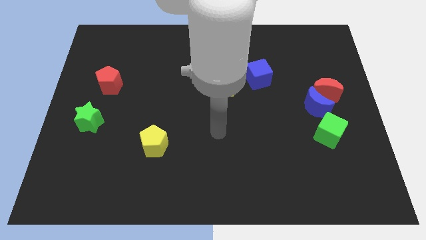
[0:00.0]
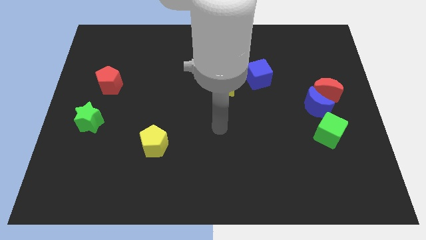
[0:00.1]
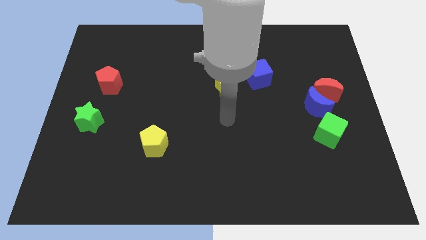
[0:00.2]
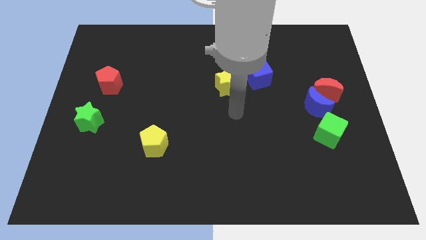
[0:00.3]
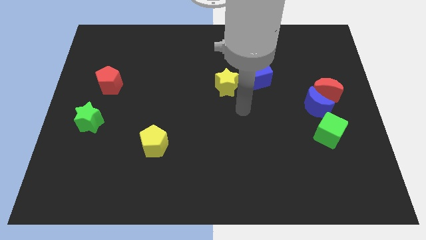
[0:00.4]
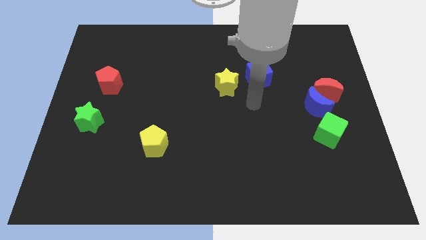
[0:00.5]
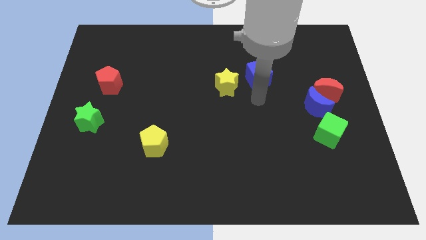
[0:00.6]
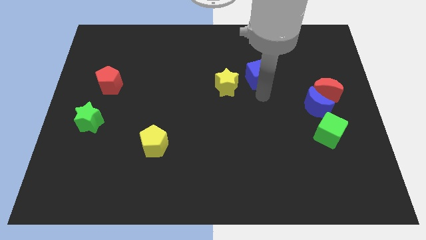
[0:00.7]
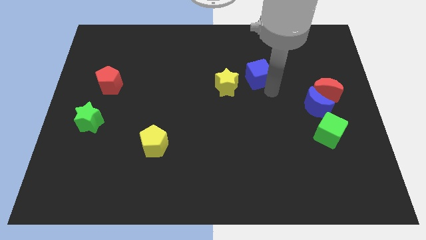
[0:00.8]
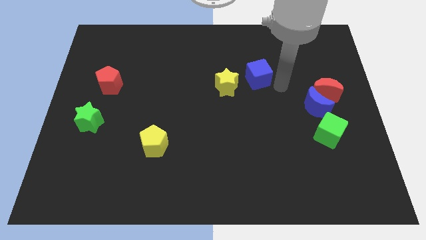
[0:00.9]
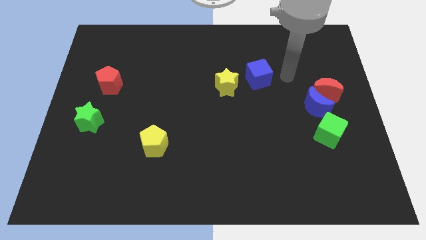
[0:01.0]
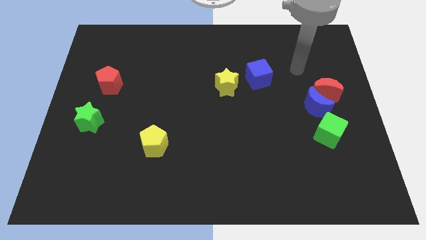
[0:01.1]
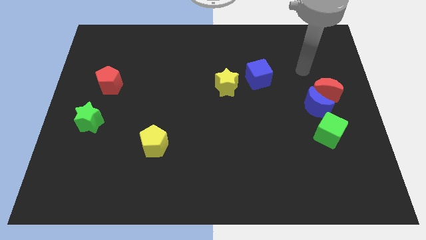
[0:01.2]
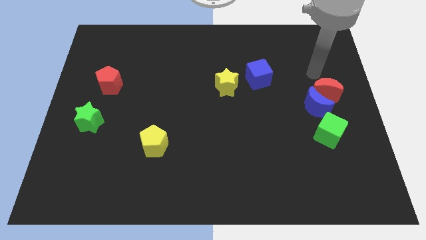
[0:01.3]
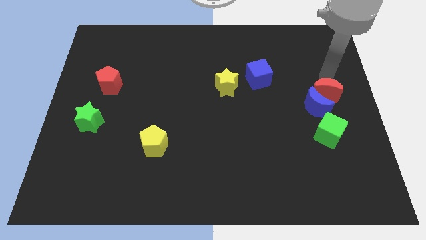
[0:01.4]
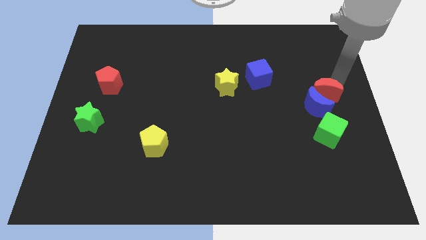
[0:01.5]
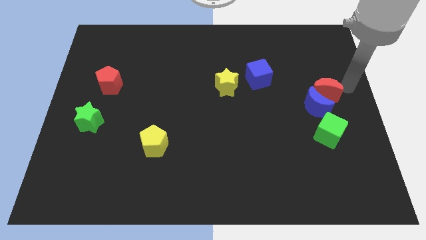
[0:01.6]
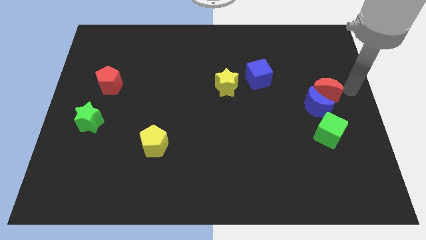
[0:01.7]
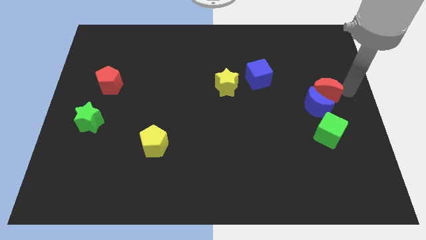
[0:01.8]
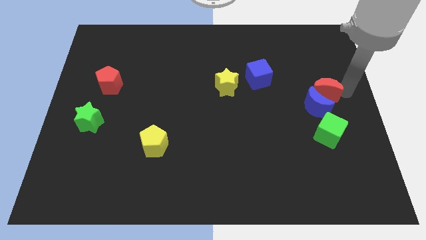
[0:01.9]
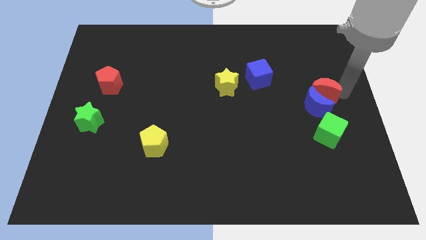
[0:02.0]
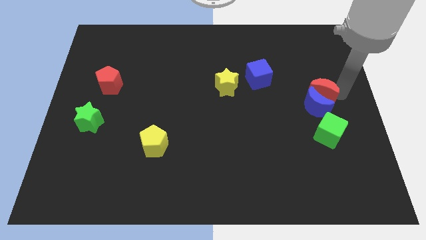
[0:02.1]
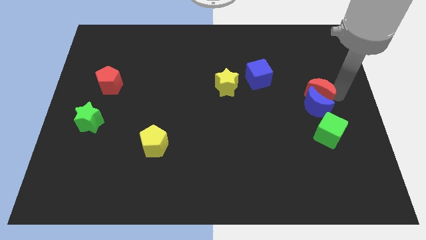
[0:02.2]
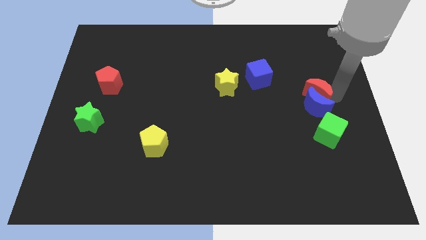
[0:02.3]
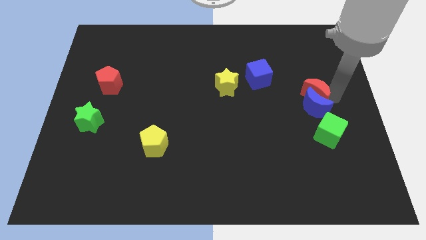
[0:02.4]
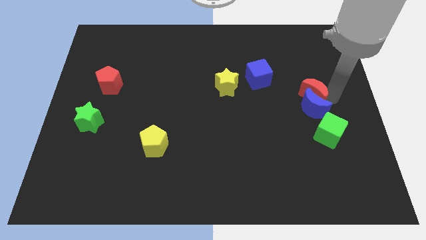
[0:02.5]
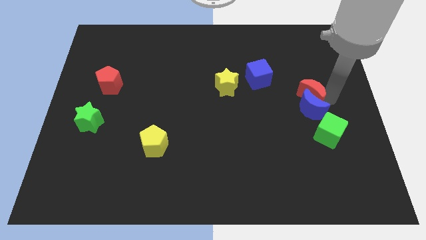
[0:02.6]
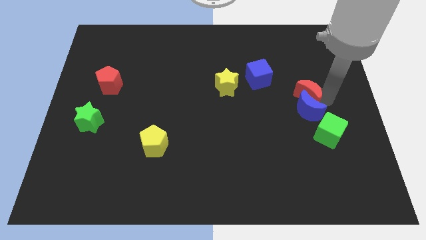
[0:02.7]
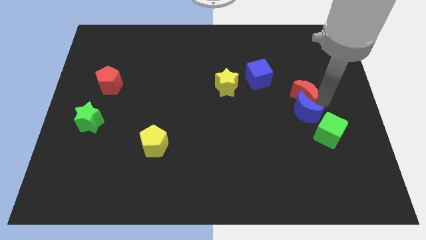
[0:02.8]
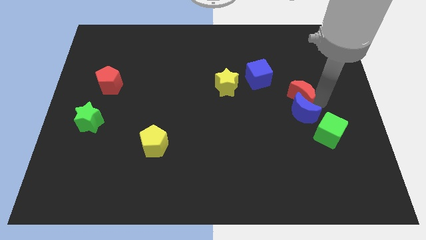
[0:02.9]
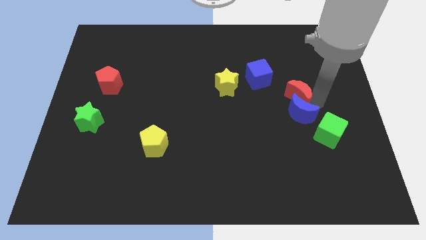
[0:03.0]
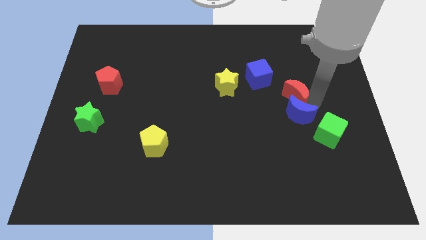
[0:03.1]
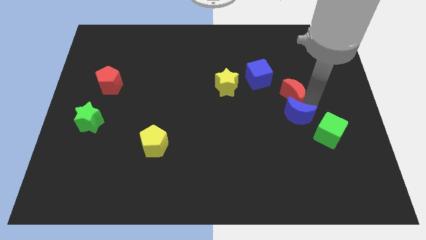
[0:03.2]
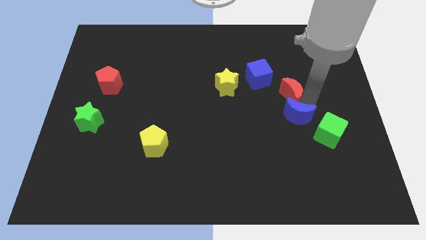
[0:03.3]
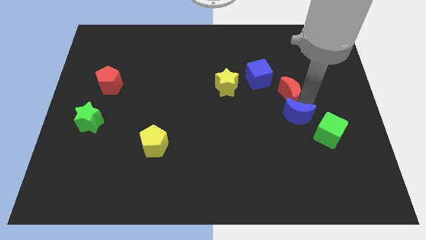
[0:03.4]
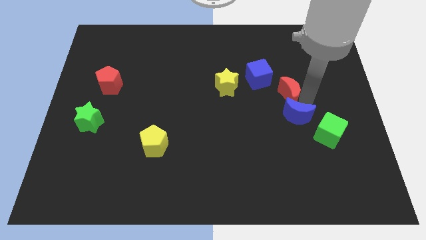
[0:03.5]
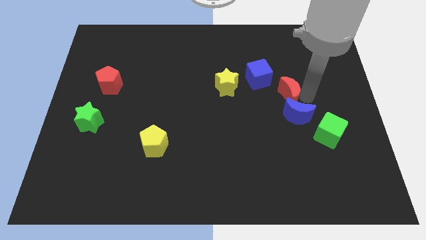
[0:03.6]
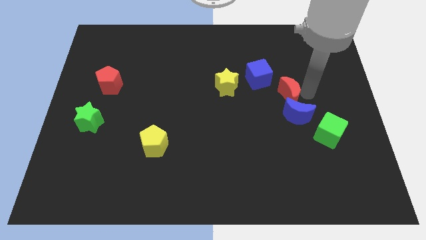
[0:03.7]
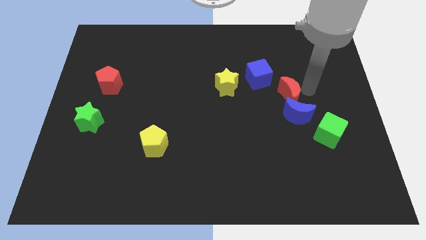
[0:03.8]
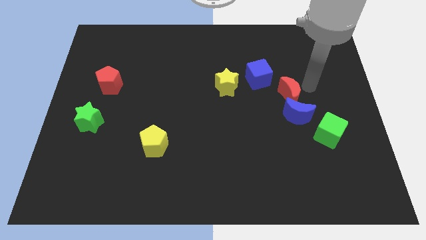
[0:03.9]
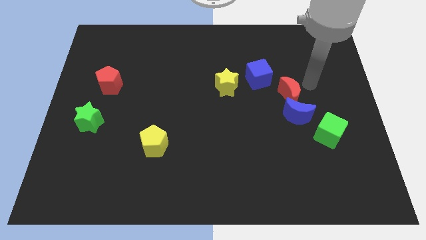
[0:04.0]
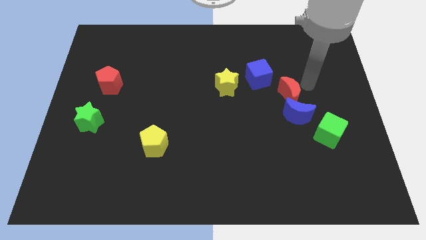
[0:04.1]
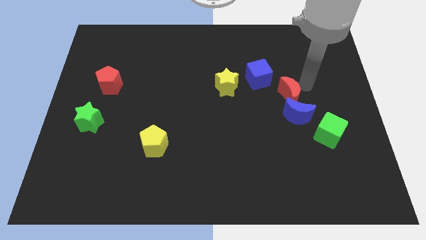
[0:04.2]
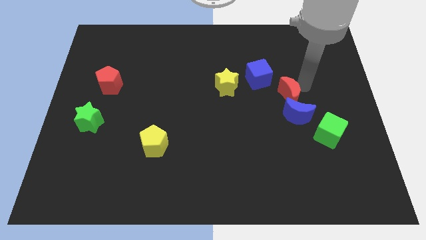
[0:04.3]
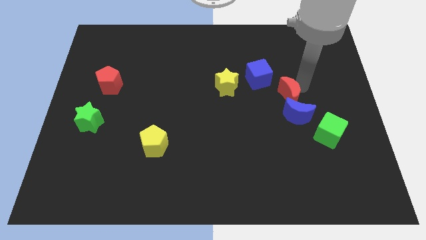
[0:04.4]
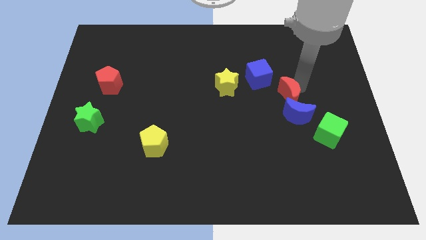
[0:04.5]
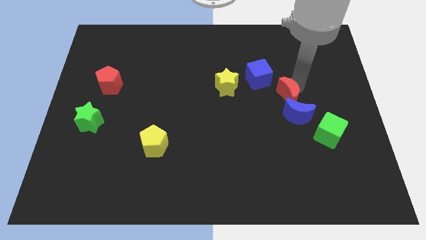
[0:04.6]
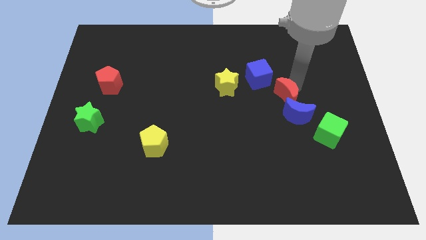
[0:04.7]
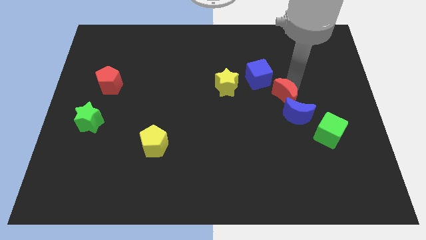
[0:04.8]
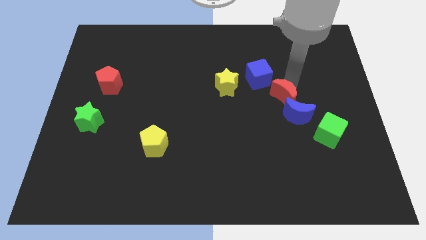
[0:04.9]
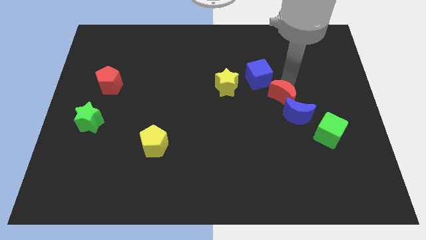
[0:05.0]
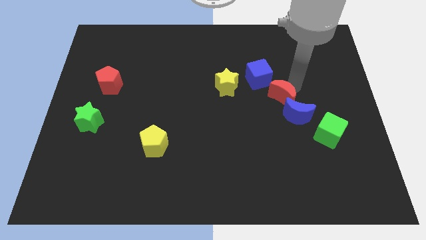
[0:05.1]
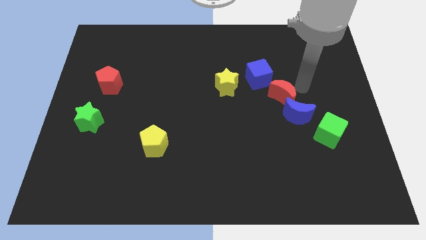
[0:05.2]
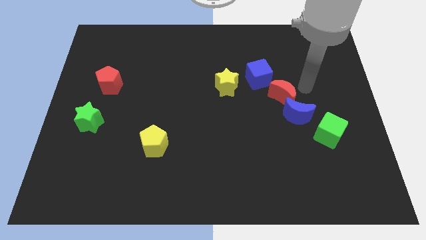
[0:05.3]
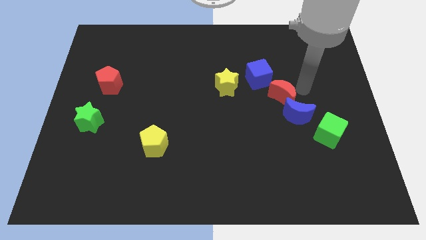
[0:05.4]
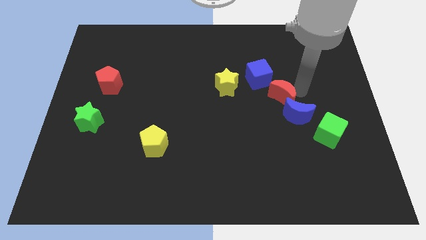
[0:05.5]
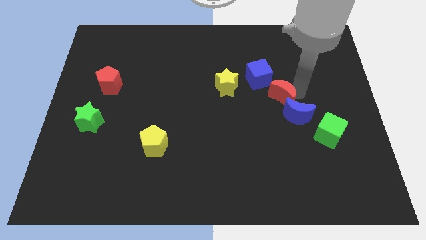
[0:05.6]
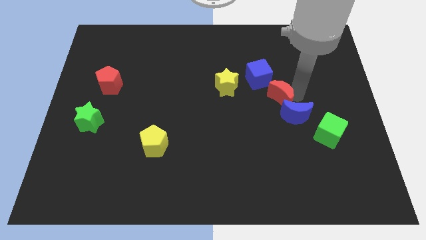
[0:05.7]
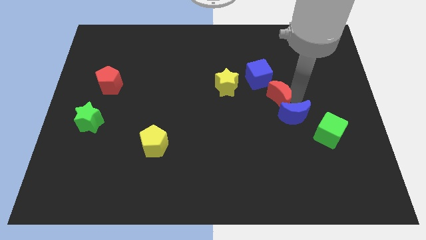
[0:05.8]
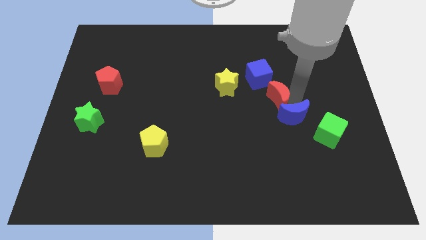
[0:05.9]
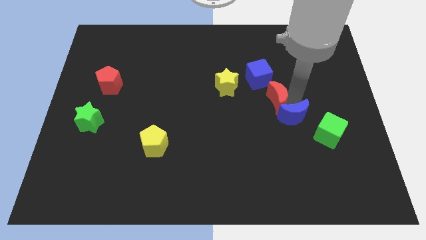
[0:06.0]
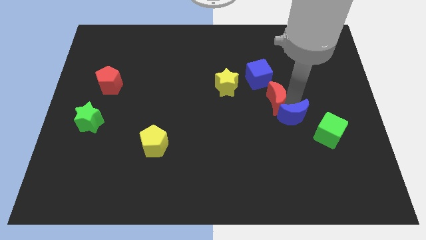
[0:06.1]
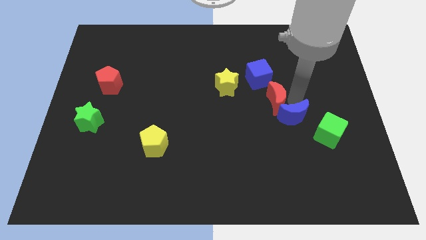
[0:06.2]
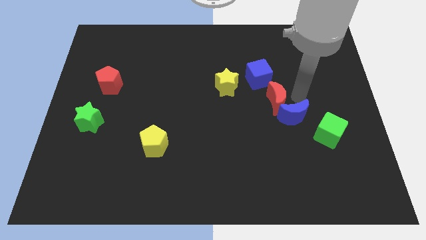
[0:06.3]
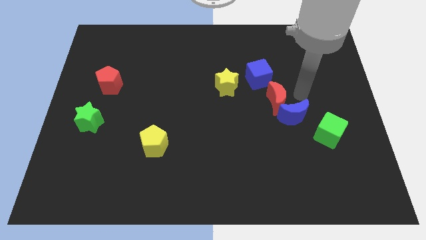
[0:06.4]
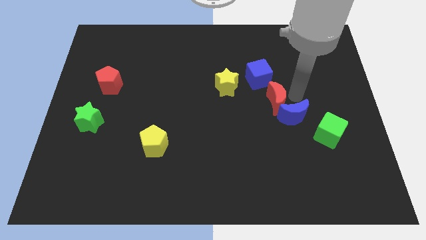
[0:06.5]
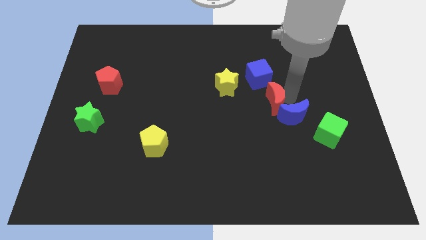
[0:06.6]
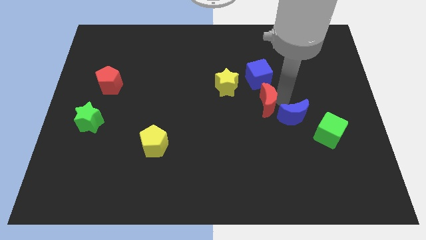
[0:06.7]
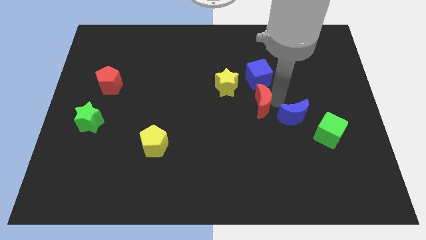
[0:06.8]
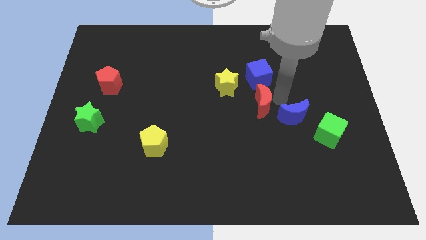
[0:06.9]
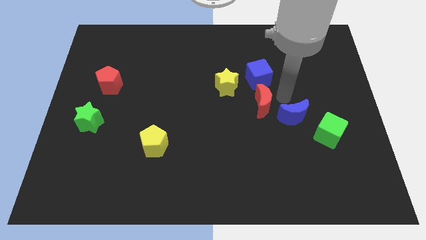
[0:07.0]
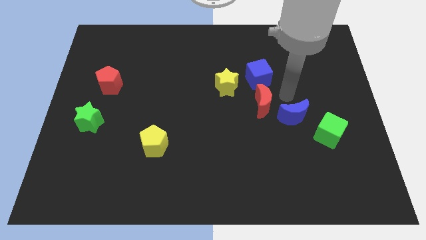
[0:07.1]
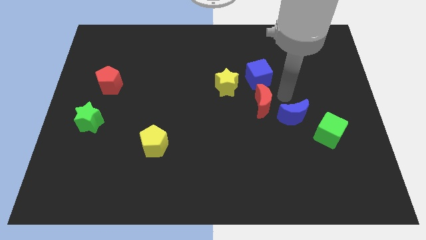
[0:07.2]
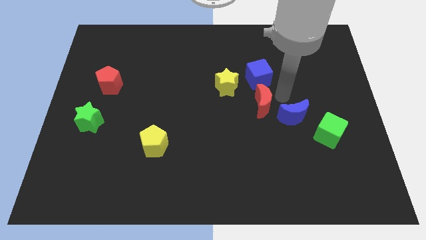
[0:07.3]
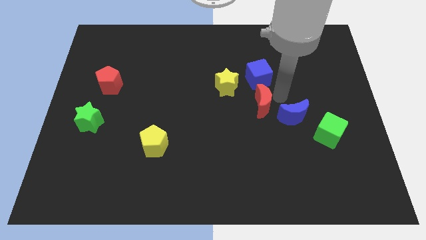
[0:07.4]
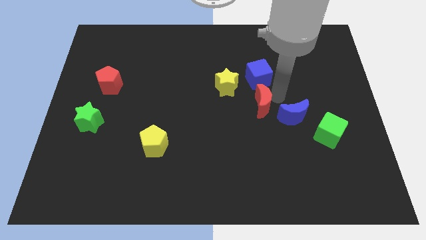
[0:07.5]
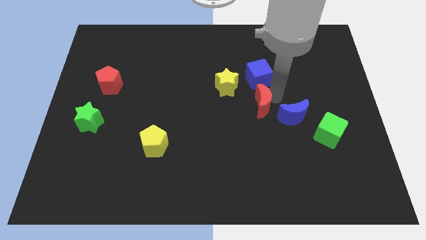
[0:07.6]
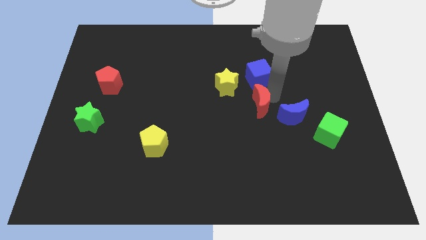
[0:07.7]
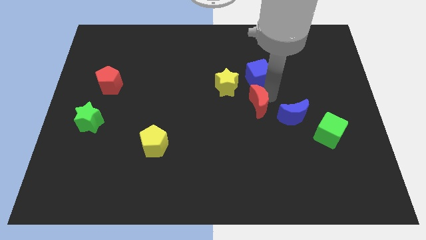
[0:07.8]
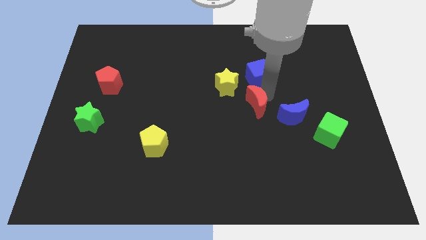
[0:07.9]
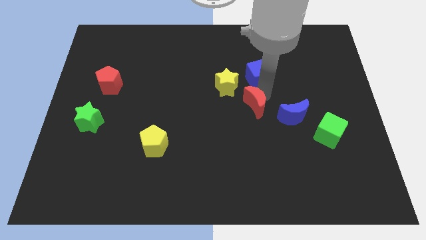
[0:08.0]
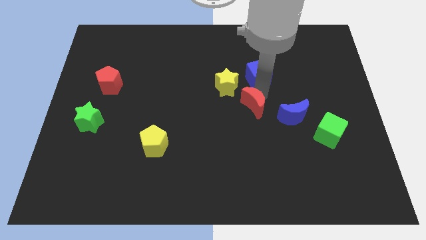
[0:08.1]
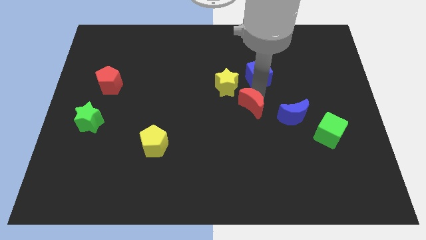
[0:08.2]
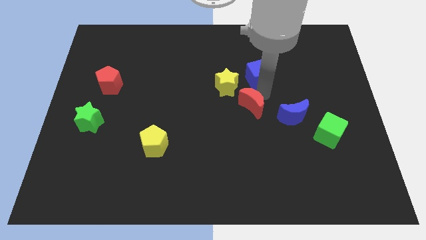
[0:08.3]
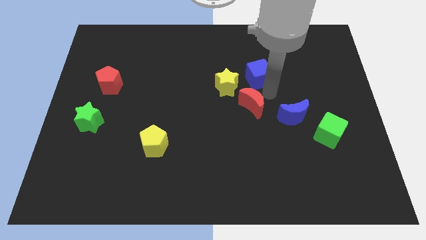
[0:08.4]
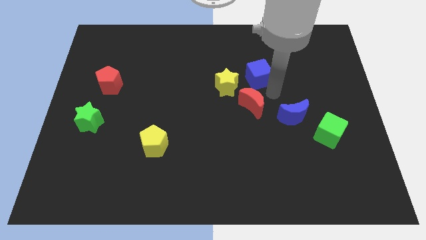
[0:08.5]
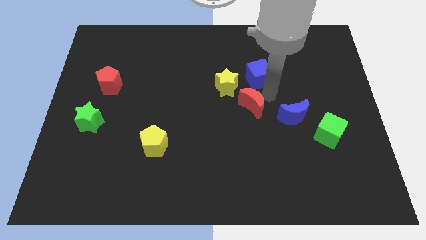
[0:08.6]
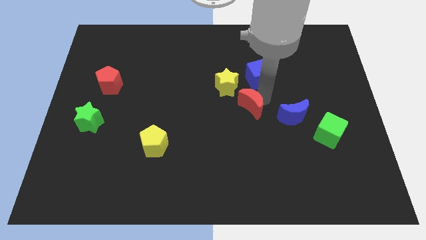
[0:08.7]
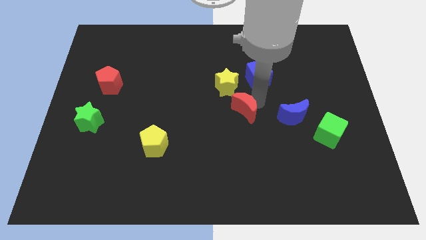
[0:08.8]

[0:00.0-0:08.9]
put the red moon to the bottom side of the yellow star
